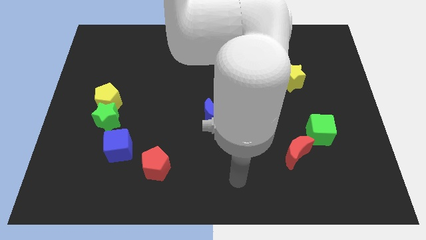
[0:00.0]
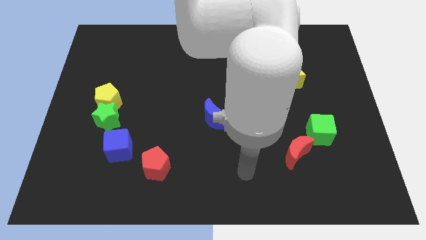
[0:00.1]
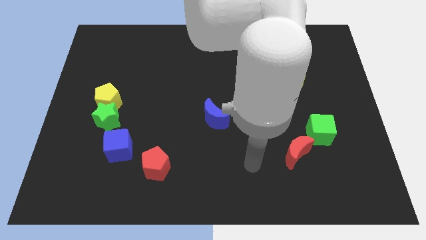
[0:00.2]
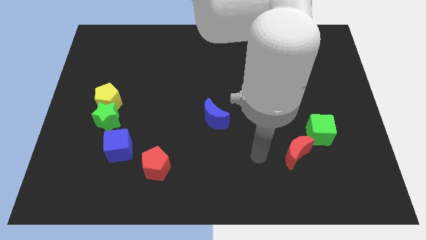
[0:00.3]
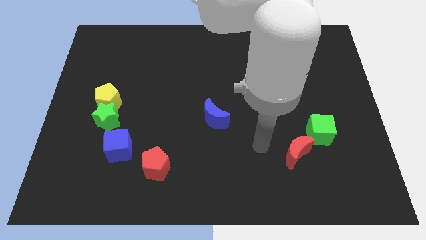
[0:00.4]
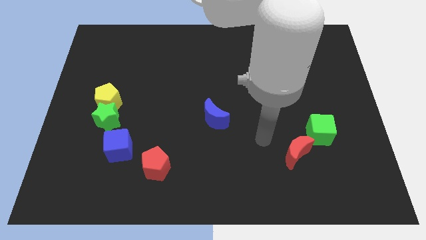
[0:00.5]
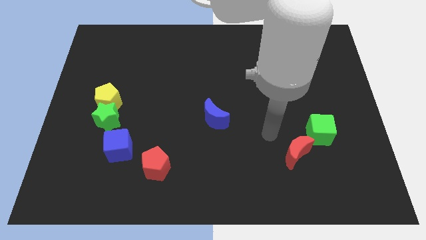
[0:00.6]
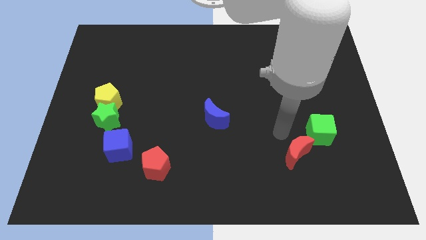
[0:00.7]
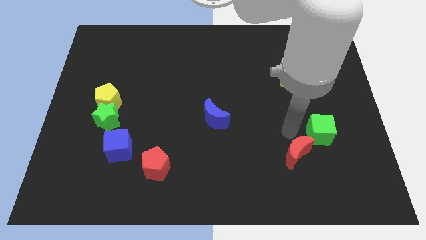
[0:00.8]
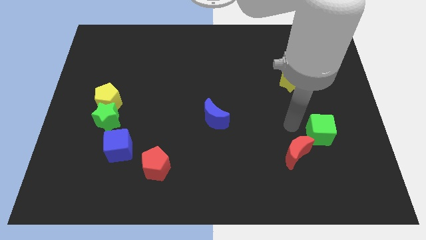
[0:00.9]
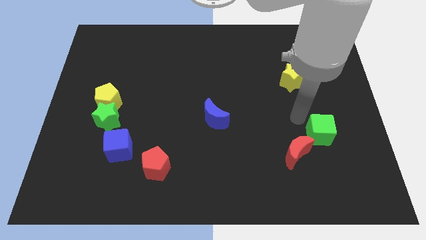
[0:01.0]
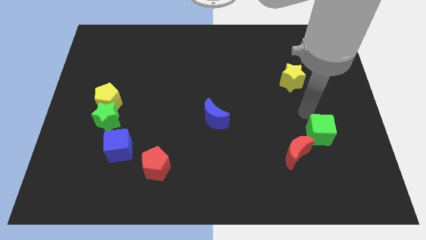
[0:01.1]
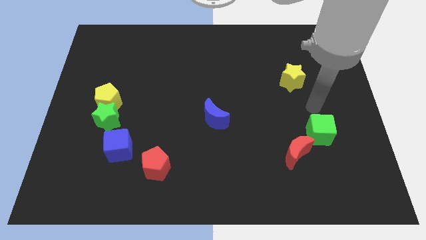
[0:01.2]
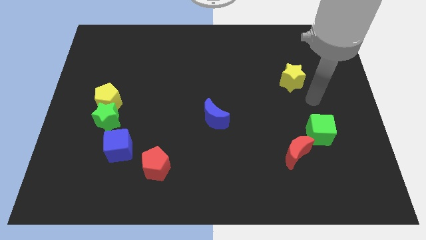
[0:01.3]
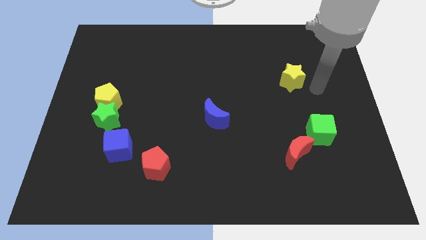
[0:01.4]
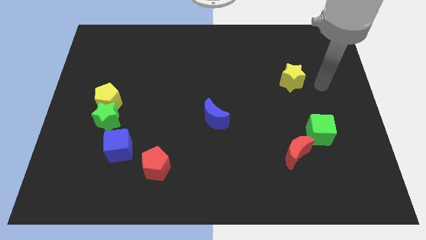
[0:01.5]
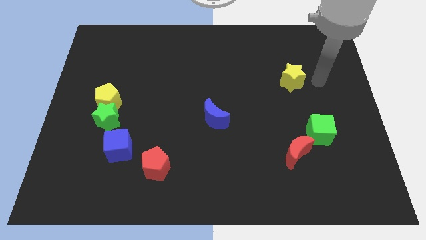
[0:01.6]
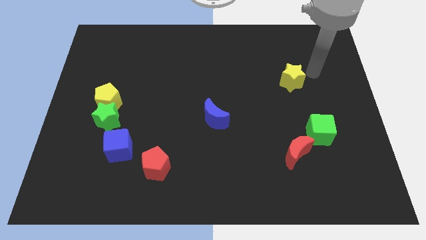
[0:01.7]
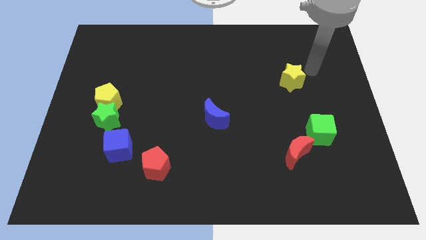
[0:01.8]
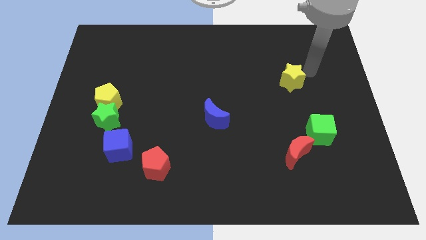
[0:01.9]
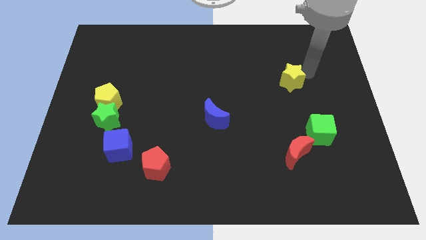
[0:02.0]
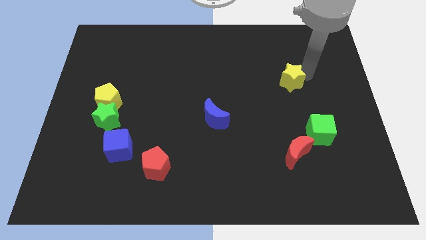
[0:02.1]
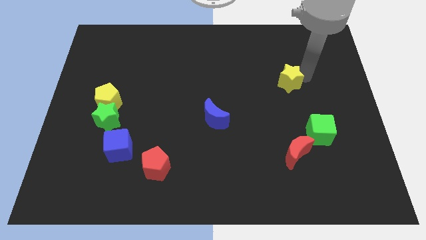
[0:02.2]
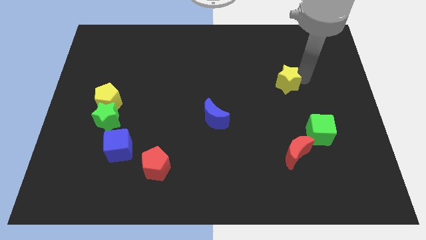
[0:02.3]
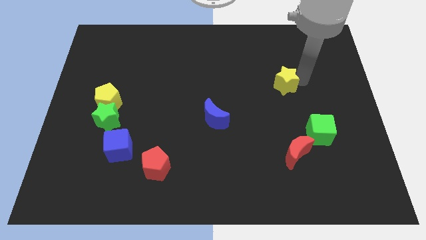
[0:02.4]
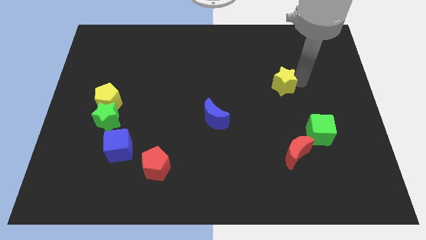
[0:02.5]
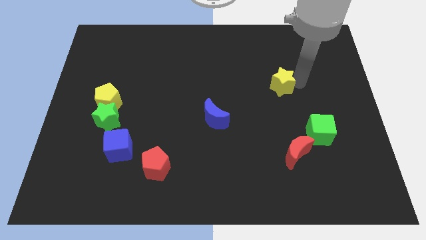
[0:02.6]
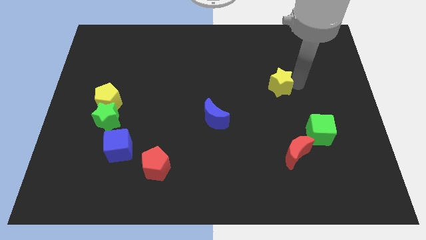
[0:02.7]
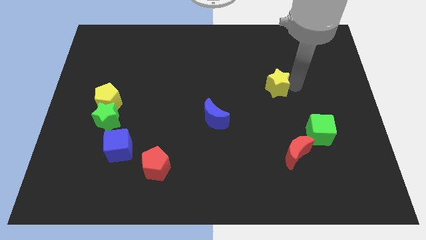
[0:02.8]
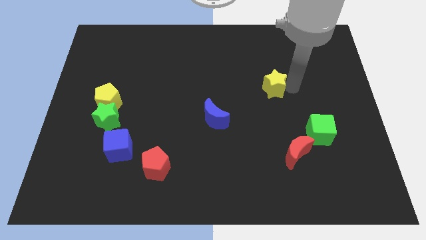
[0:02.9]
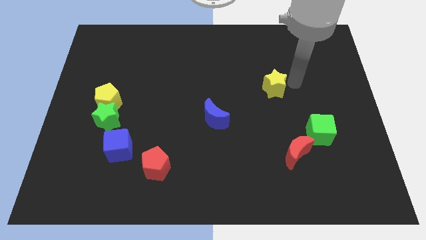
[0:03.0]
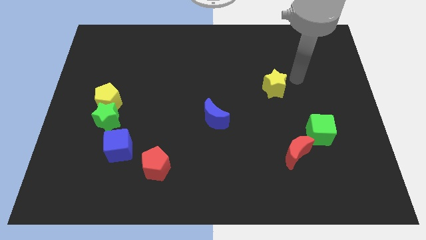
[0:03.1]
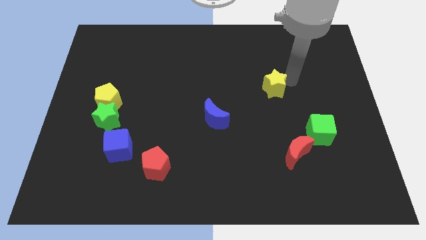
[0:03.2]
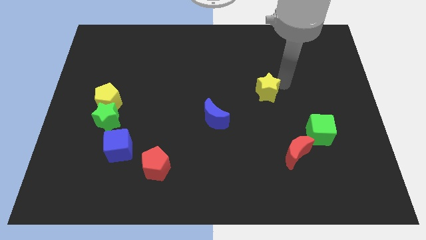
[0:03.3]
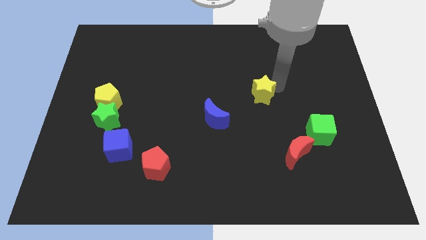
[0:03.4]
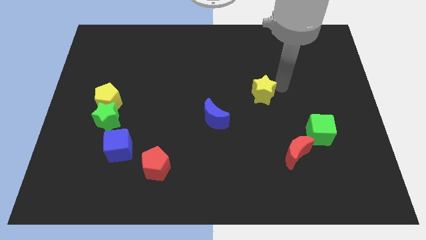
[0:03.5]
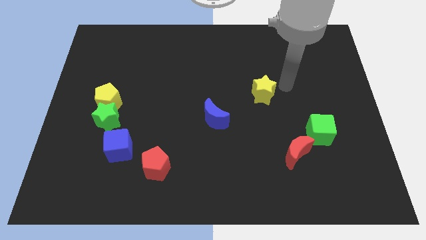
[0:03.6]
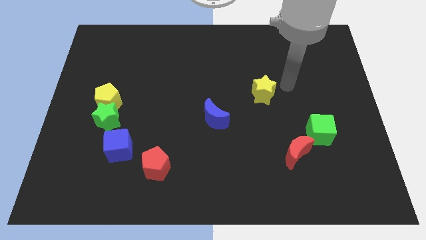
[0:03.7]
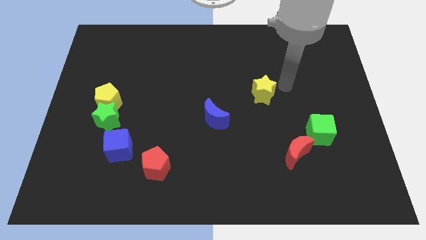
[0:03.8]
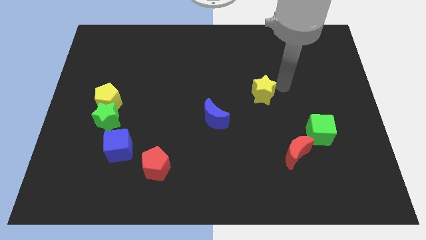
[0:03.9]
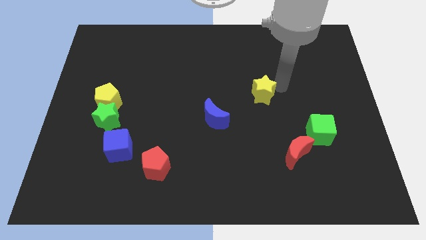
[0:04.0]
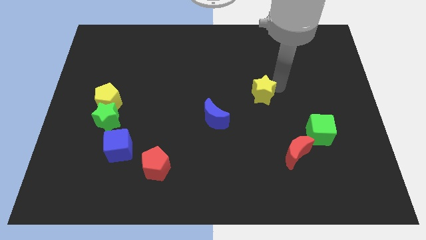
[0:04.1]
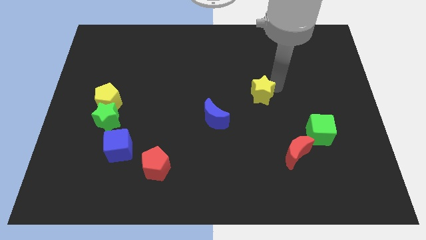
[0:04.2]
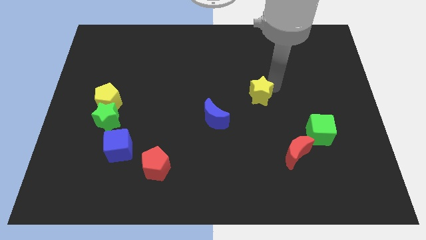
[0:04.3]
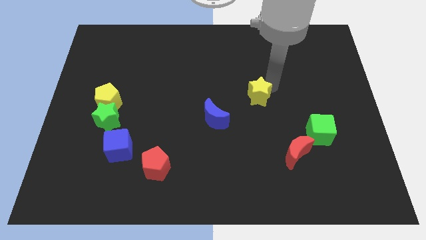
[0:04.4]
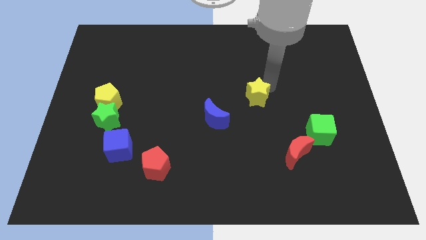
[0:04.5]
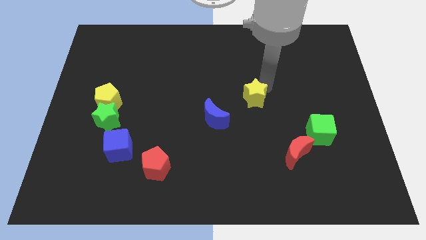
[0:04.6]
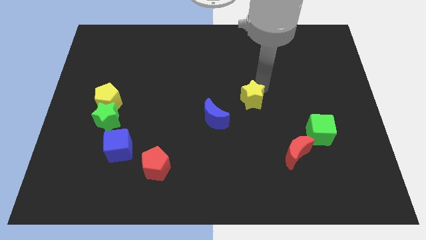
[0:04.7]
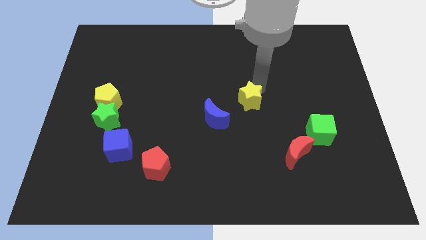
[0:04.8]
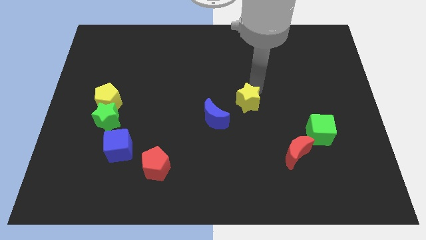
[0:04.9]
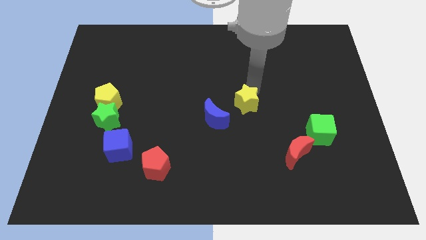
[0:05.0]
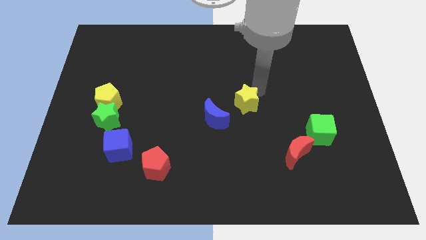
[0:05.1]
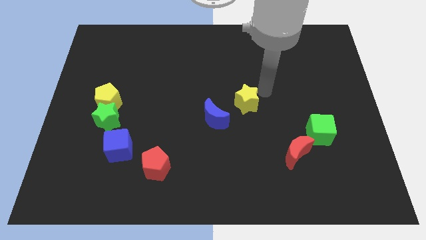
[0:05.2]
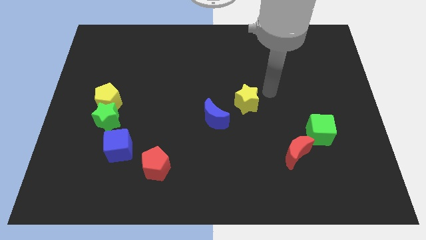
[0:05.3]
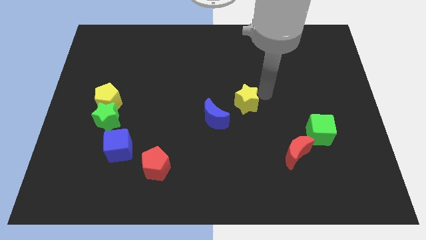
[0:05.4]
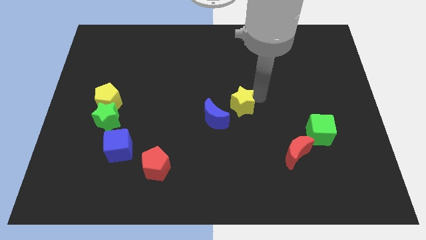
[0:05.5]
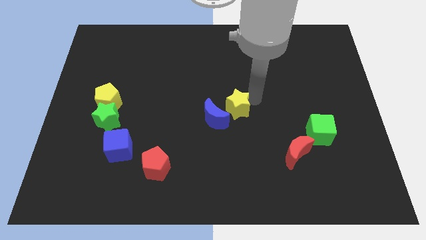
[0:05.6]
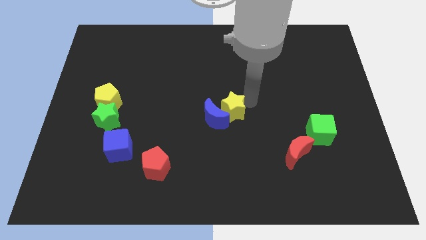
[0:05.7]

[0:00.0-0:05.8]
move the yellow star towards the blue moon
